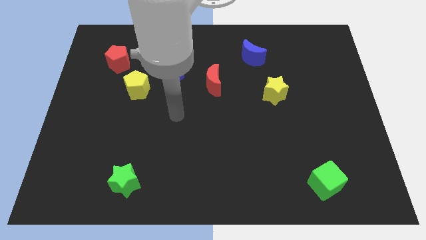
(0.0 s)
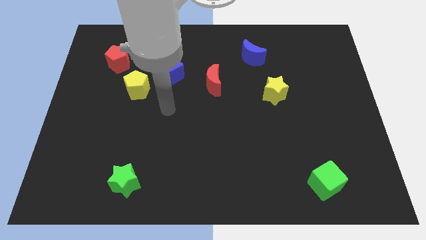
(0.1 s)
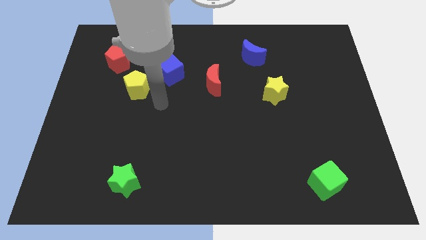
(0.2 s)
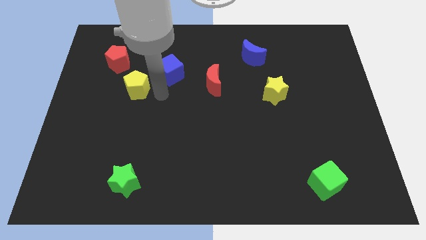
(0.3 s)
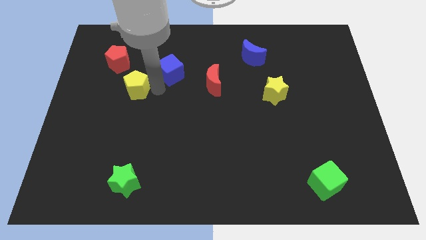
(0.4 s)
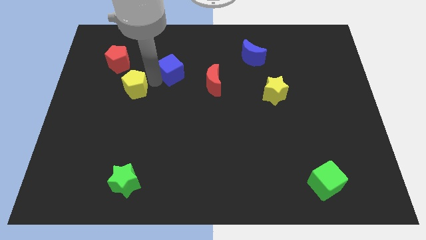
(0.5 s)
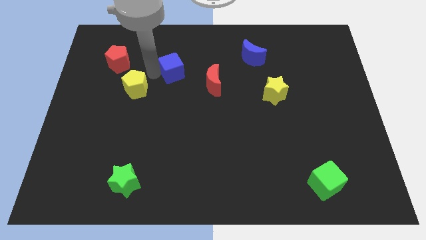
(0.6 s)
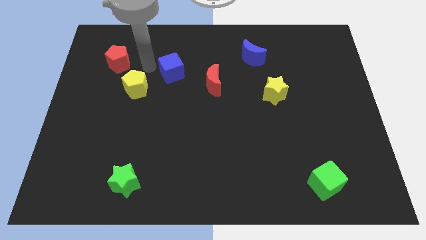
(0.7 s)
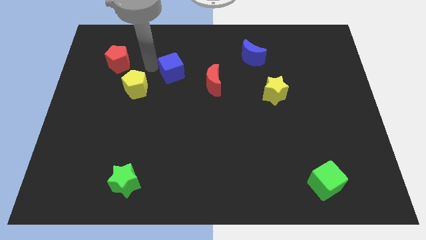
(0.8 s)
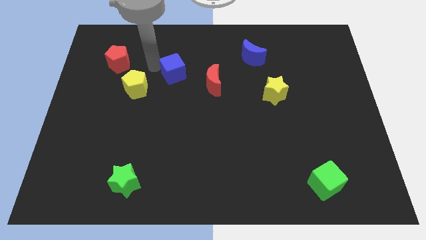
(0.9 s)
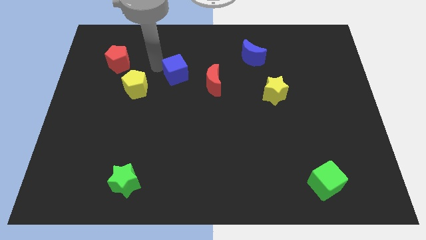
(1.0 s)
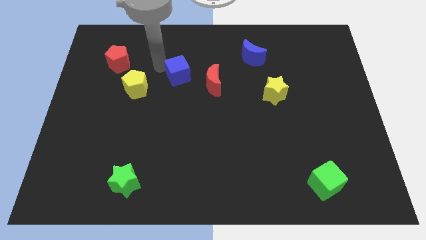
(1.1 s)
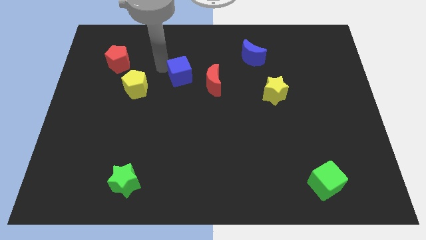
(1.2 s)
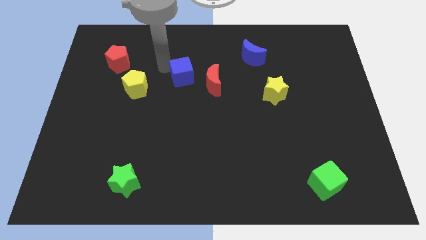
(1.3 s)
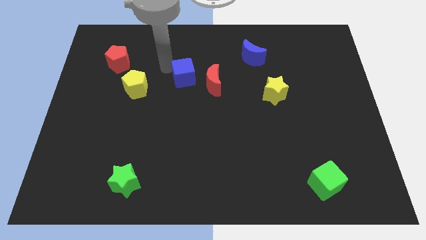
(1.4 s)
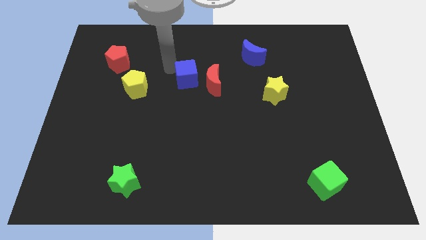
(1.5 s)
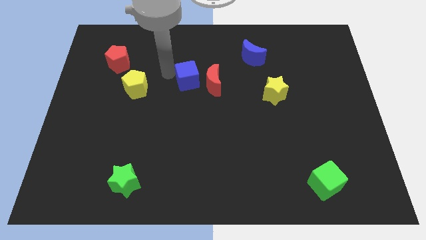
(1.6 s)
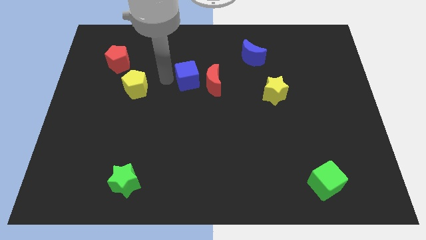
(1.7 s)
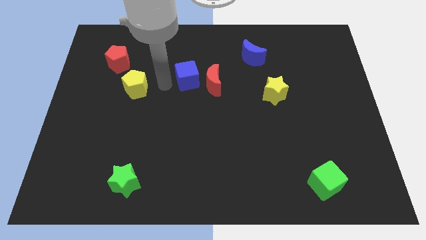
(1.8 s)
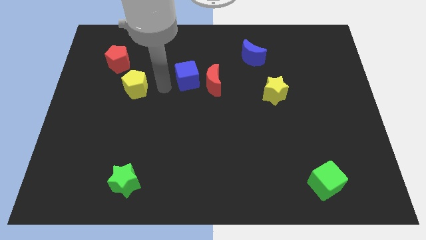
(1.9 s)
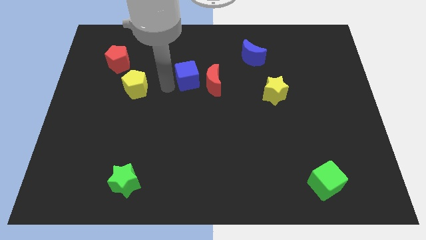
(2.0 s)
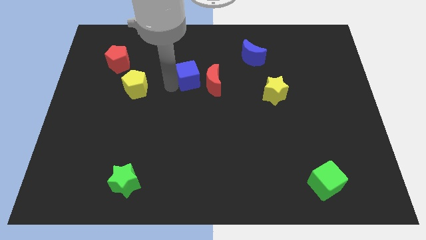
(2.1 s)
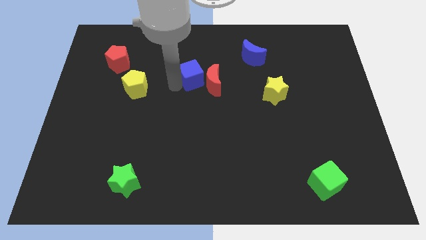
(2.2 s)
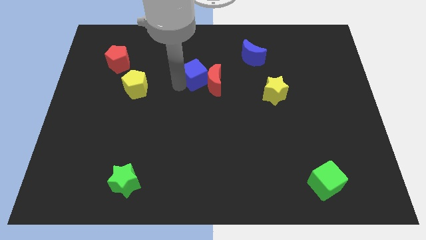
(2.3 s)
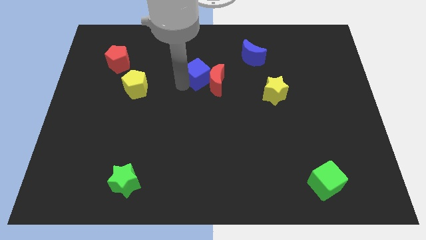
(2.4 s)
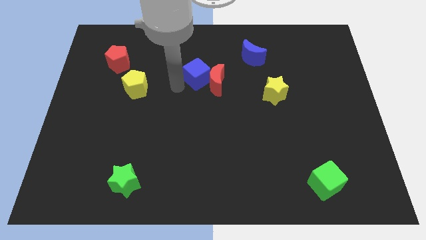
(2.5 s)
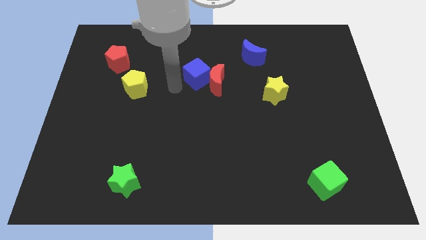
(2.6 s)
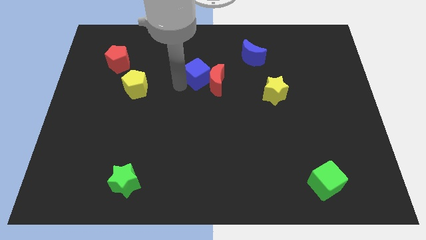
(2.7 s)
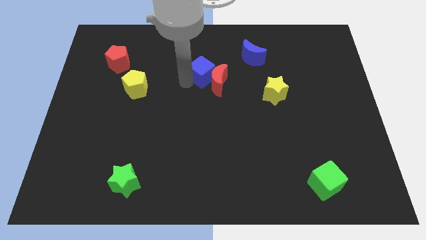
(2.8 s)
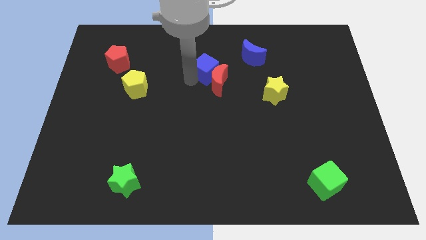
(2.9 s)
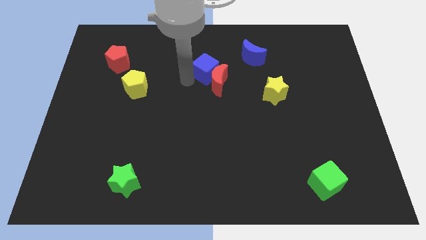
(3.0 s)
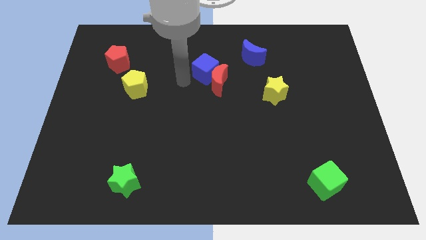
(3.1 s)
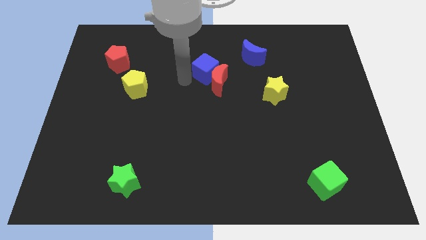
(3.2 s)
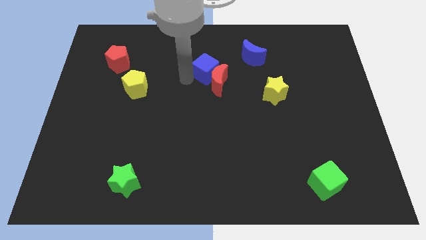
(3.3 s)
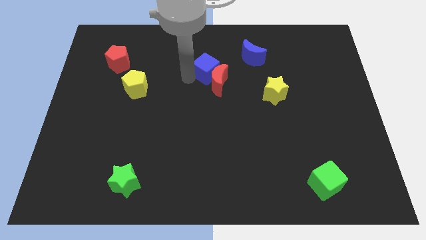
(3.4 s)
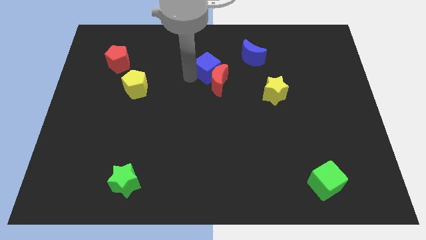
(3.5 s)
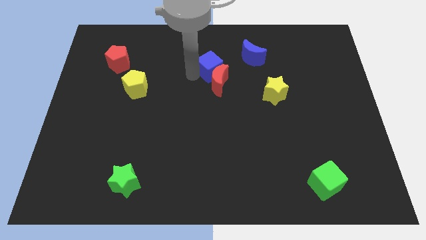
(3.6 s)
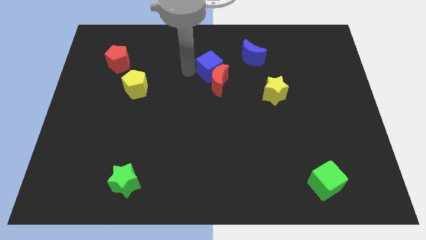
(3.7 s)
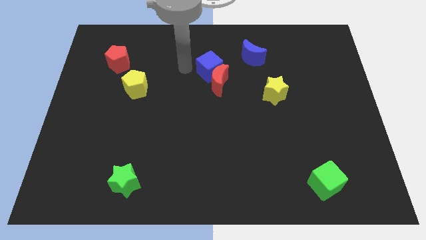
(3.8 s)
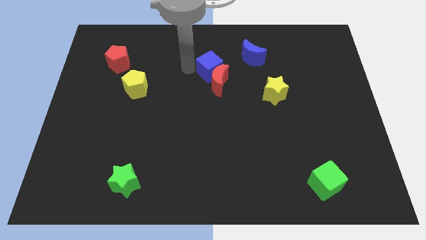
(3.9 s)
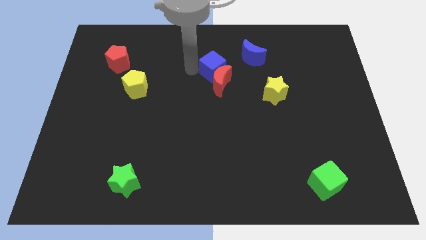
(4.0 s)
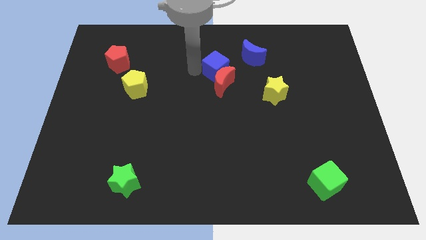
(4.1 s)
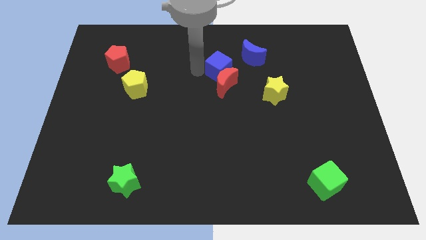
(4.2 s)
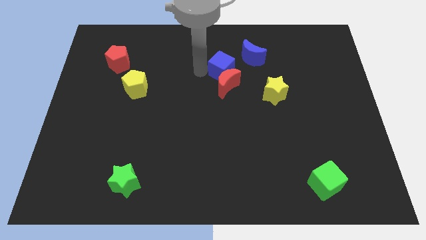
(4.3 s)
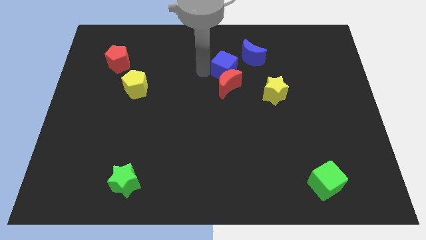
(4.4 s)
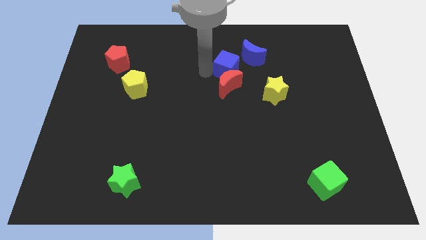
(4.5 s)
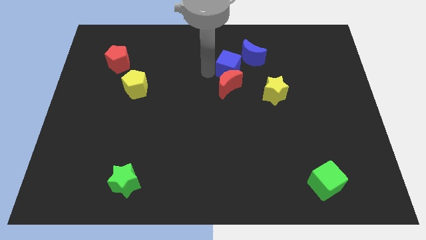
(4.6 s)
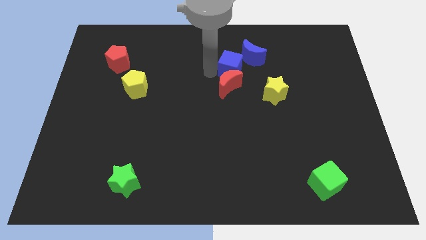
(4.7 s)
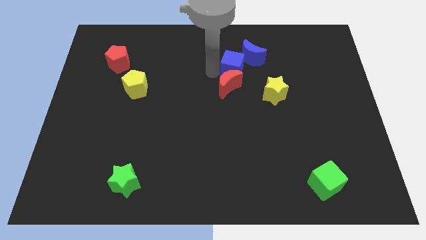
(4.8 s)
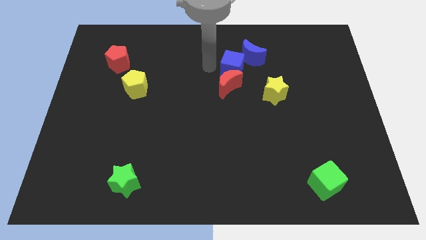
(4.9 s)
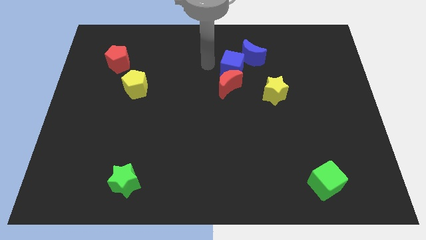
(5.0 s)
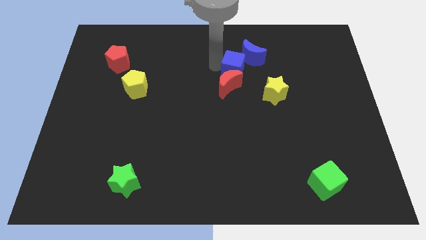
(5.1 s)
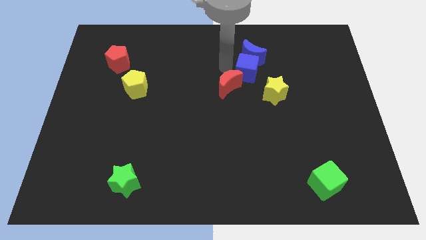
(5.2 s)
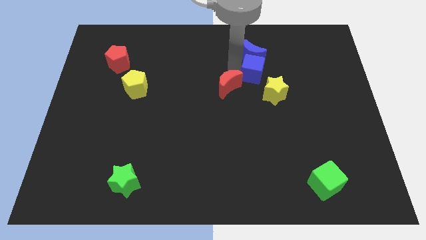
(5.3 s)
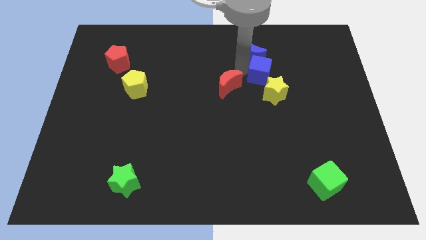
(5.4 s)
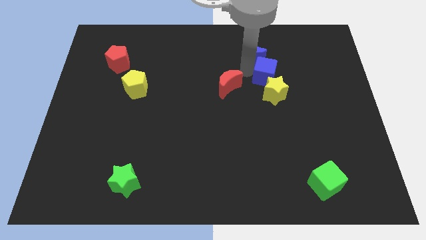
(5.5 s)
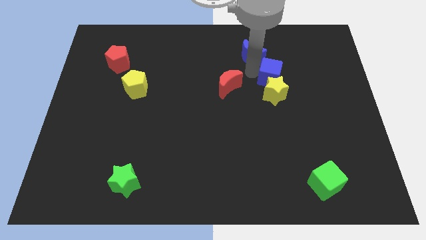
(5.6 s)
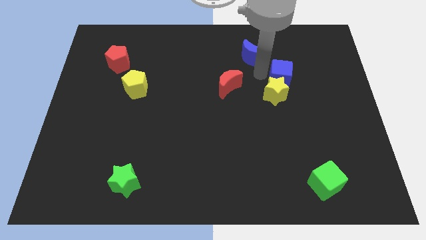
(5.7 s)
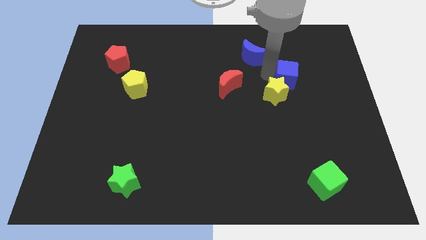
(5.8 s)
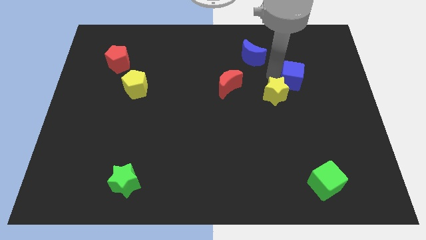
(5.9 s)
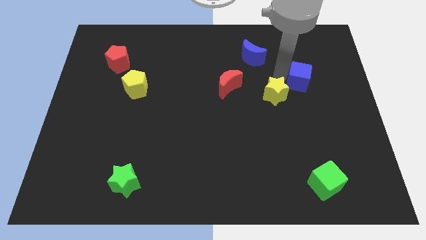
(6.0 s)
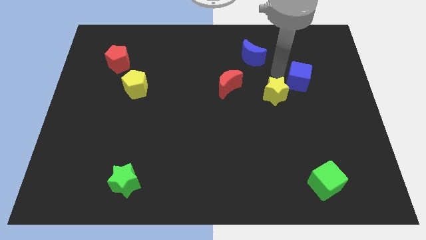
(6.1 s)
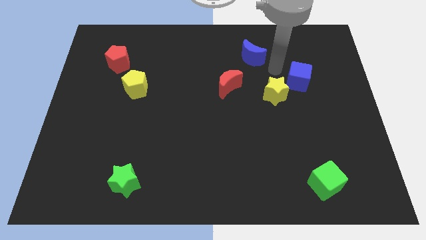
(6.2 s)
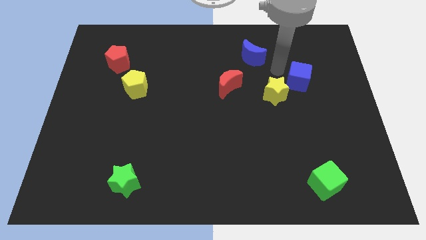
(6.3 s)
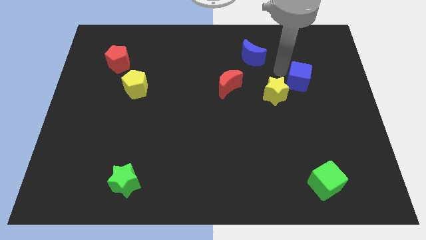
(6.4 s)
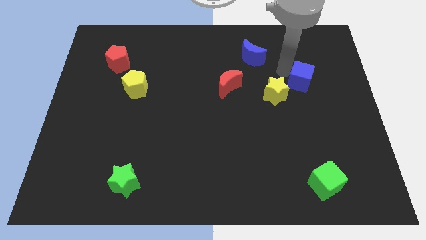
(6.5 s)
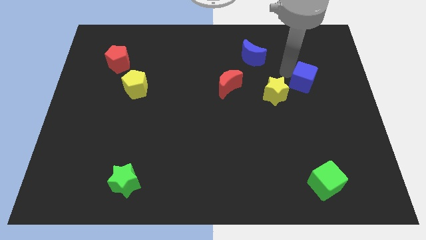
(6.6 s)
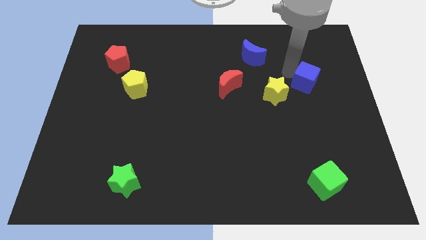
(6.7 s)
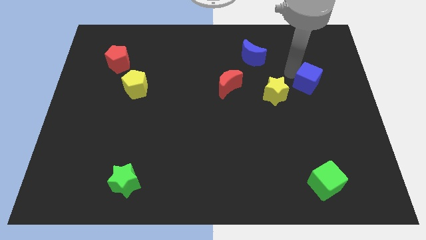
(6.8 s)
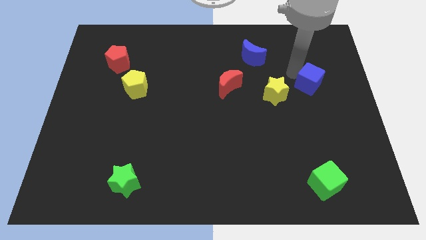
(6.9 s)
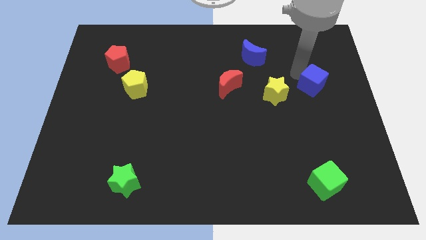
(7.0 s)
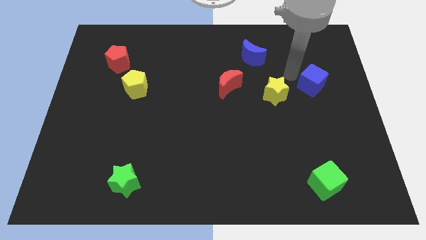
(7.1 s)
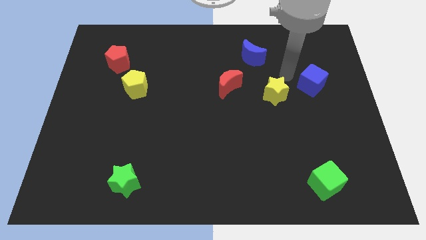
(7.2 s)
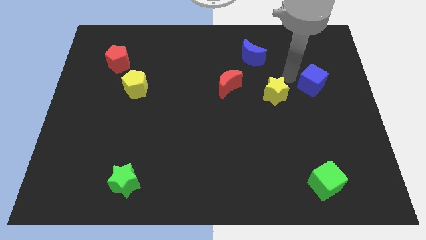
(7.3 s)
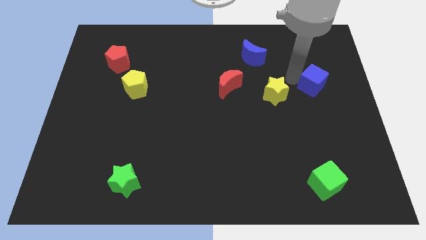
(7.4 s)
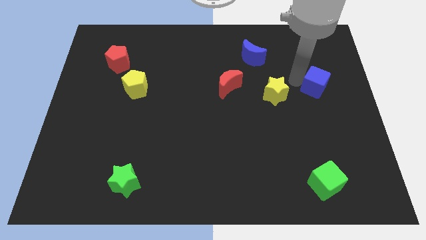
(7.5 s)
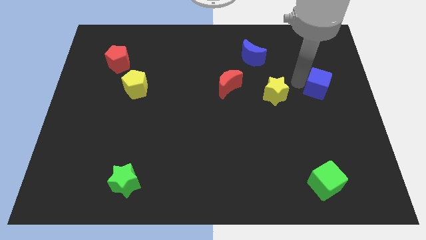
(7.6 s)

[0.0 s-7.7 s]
put the blue cube to the right side of the board
